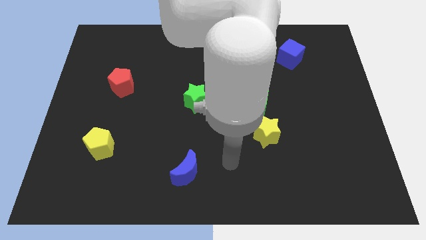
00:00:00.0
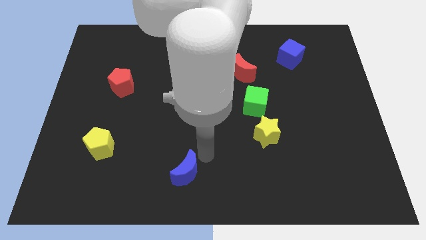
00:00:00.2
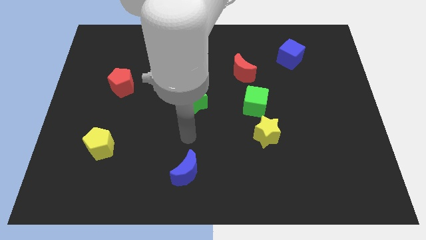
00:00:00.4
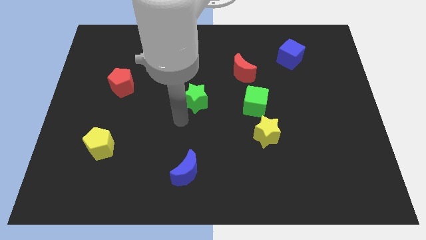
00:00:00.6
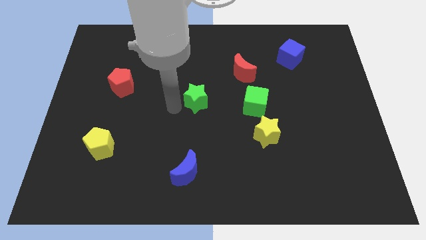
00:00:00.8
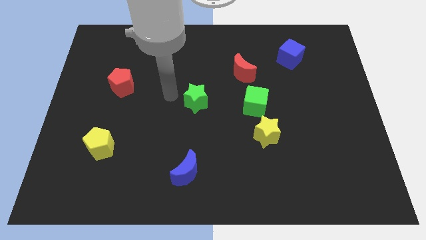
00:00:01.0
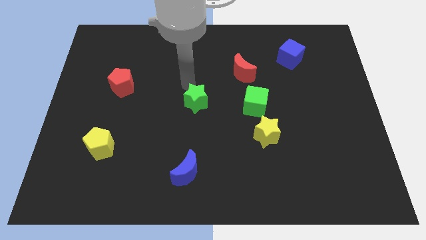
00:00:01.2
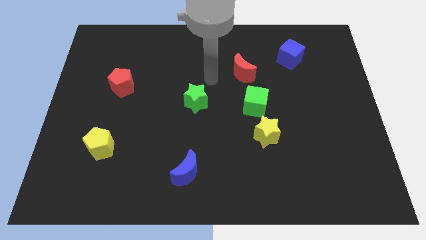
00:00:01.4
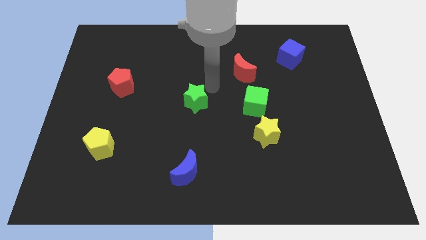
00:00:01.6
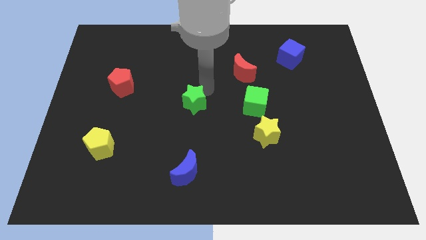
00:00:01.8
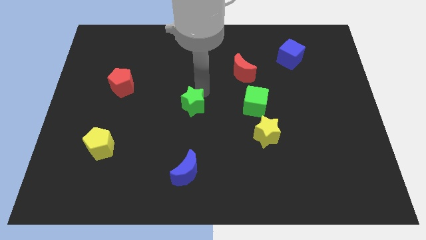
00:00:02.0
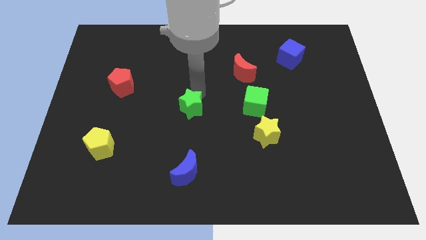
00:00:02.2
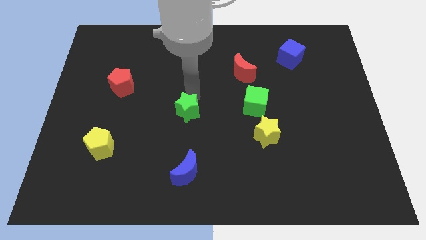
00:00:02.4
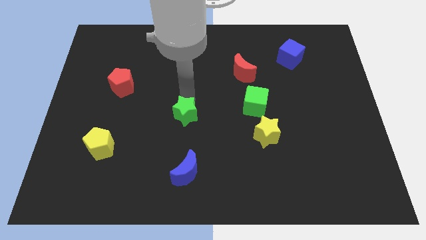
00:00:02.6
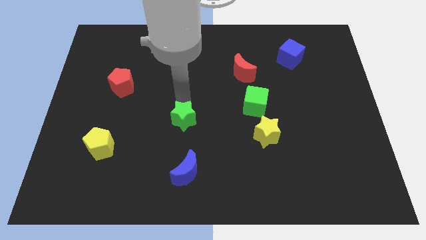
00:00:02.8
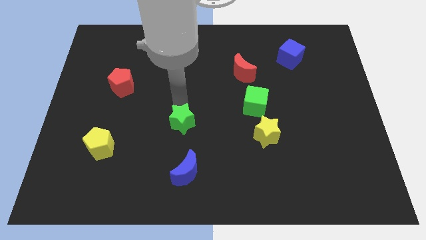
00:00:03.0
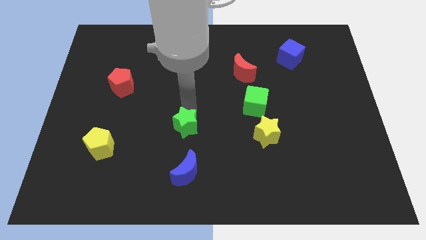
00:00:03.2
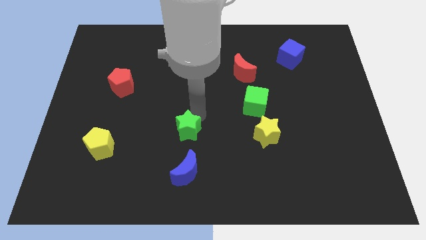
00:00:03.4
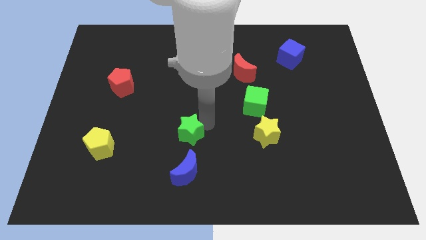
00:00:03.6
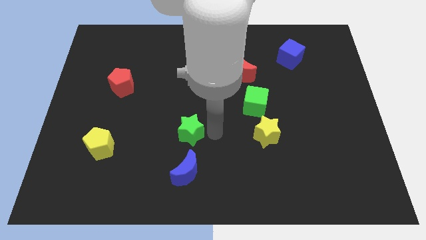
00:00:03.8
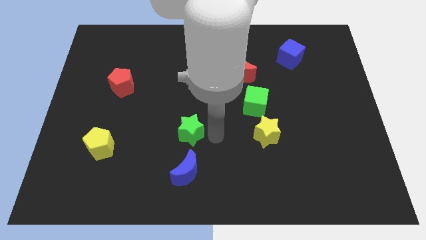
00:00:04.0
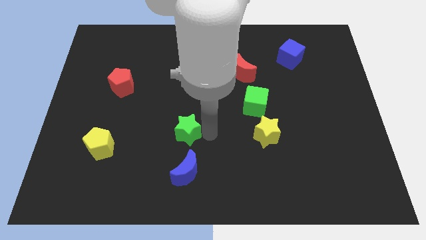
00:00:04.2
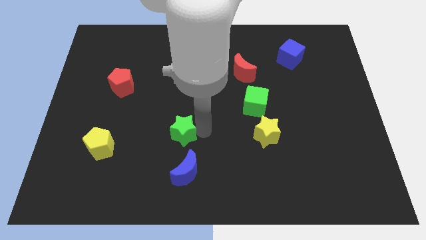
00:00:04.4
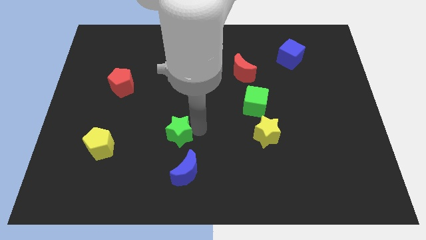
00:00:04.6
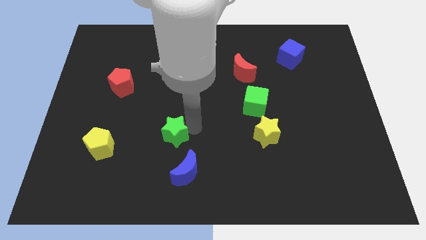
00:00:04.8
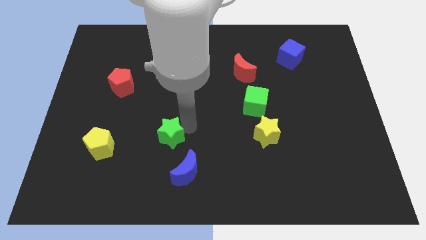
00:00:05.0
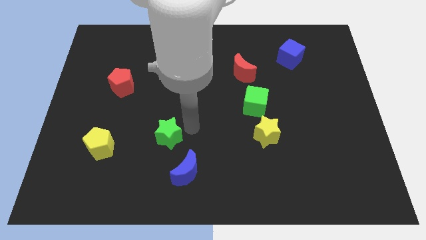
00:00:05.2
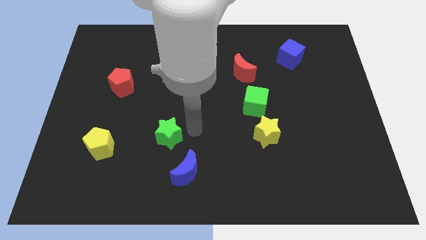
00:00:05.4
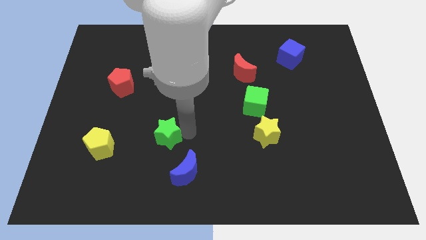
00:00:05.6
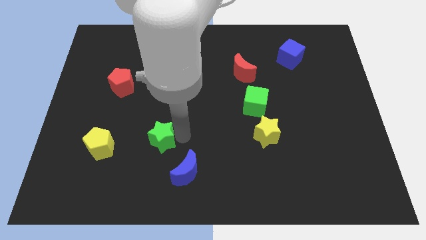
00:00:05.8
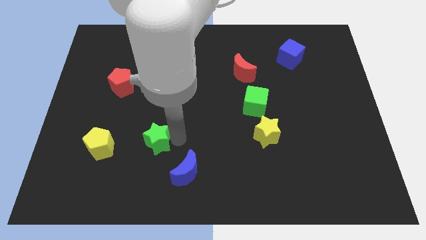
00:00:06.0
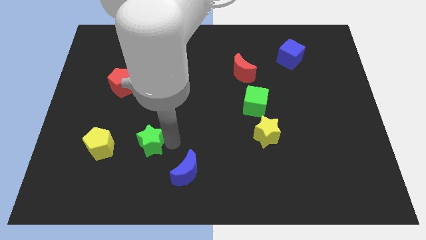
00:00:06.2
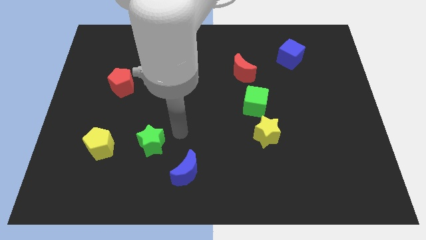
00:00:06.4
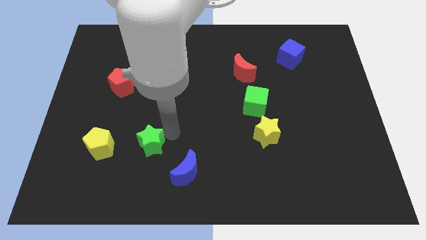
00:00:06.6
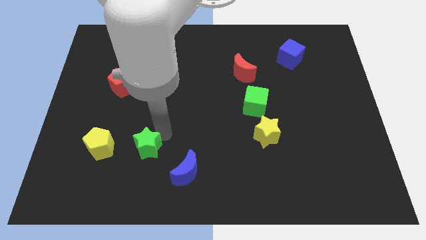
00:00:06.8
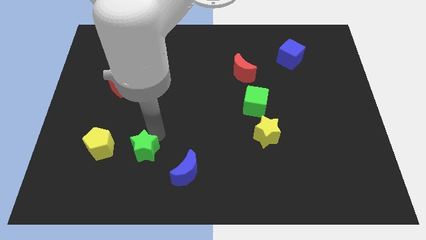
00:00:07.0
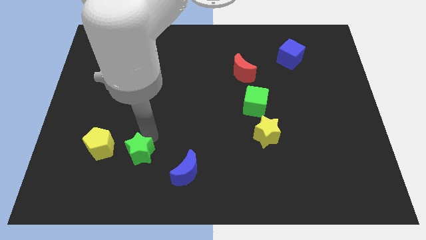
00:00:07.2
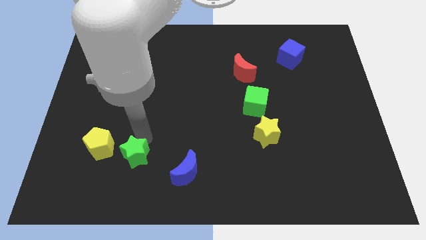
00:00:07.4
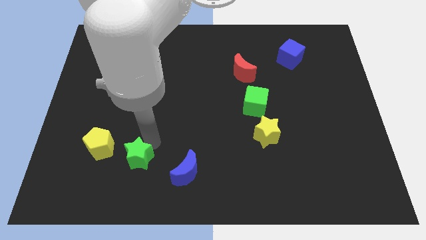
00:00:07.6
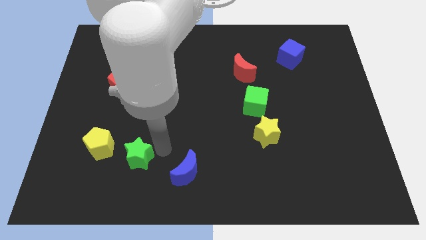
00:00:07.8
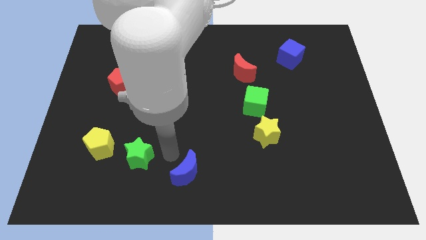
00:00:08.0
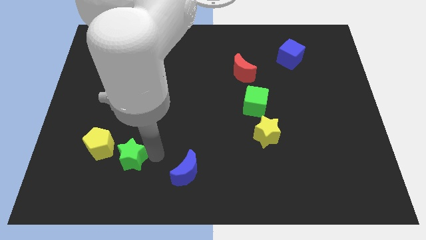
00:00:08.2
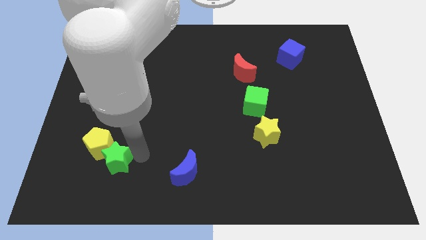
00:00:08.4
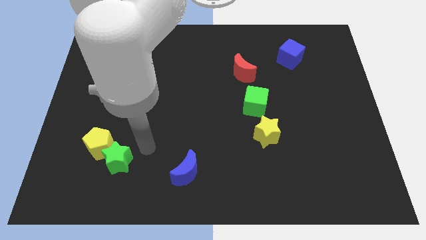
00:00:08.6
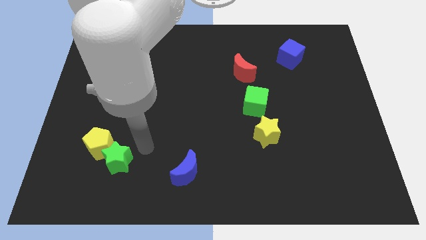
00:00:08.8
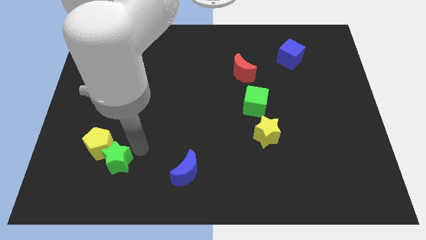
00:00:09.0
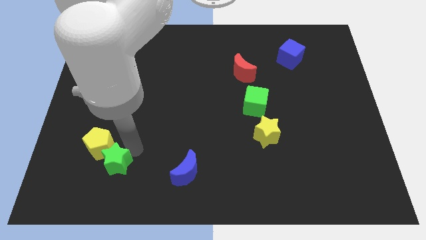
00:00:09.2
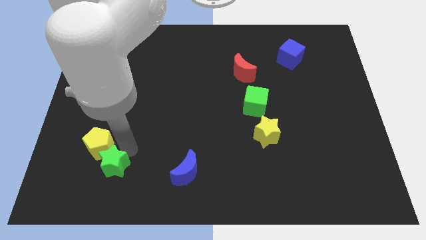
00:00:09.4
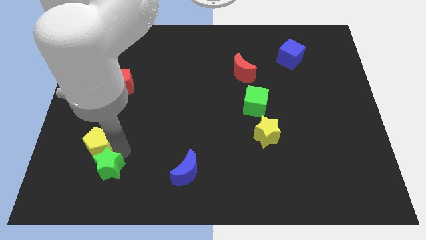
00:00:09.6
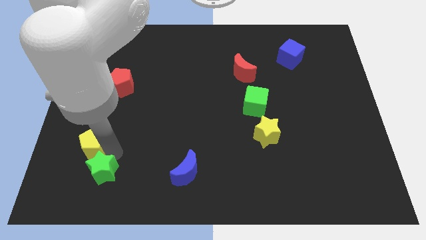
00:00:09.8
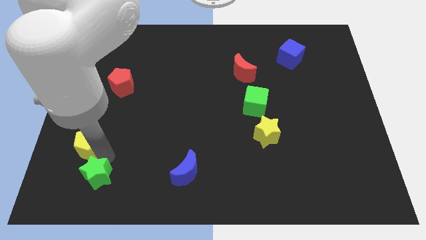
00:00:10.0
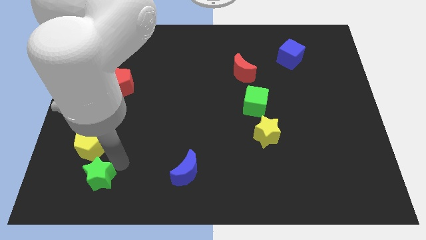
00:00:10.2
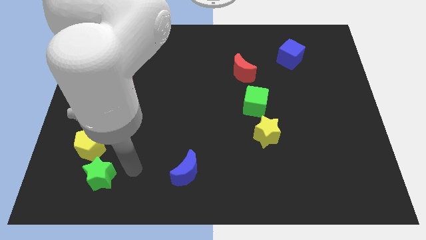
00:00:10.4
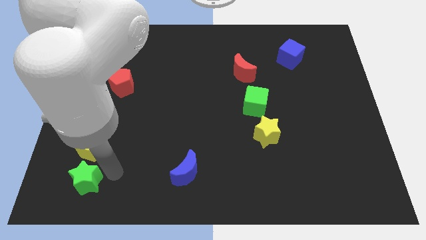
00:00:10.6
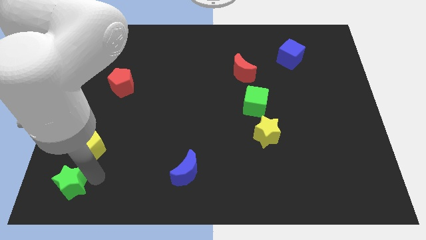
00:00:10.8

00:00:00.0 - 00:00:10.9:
put the green star to the lower left corner

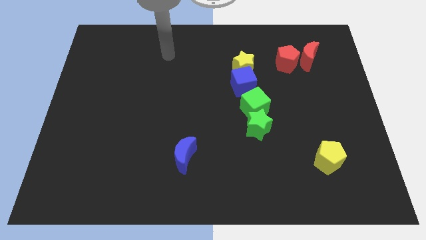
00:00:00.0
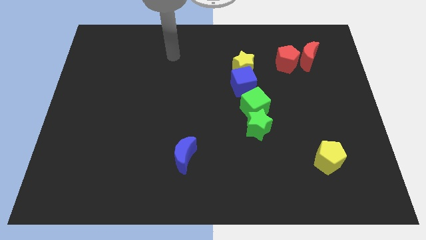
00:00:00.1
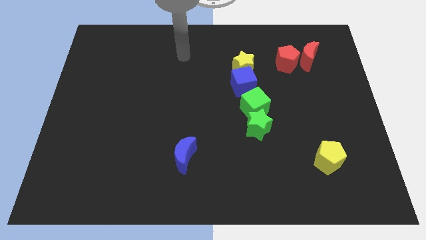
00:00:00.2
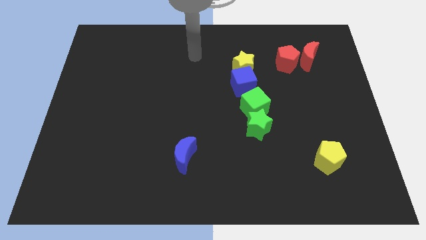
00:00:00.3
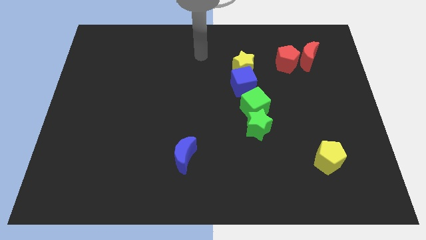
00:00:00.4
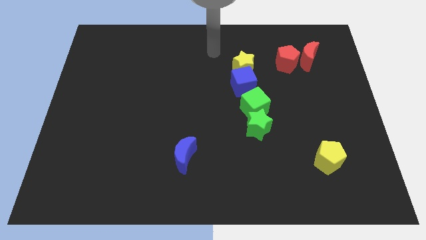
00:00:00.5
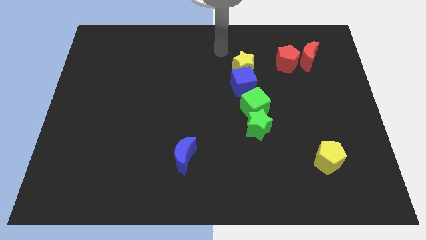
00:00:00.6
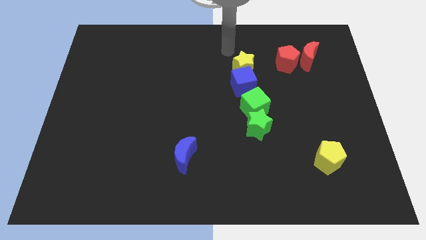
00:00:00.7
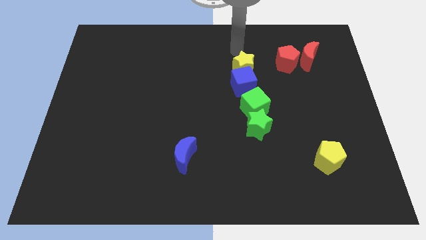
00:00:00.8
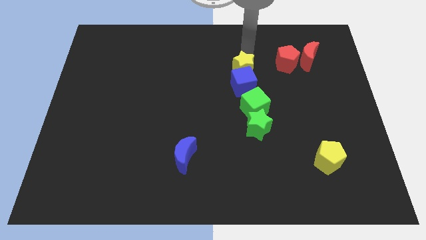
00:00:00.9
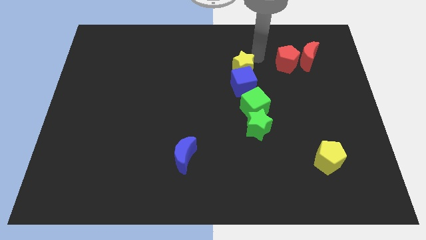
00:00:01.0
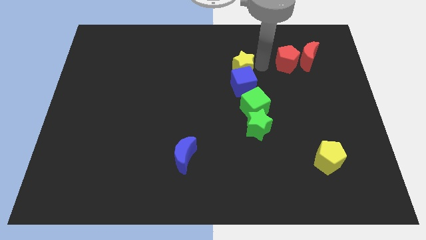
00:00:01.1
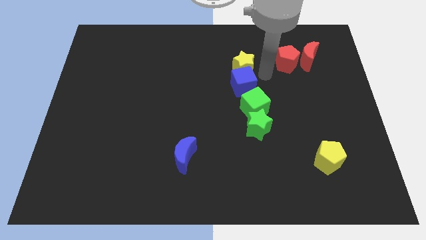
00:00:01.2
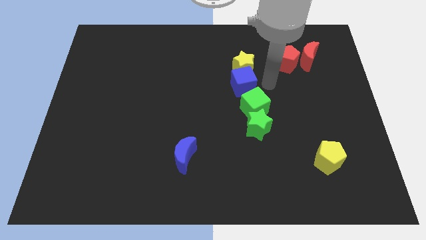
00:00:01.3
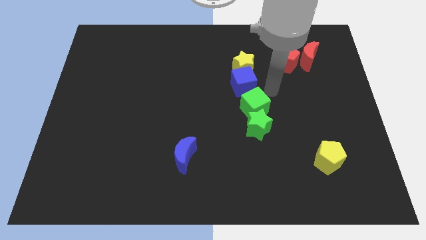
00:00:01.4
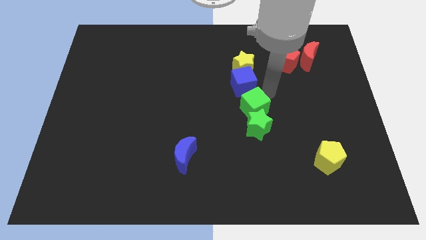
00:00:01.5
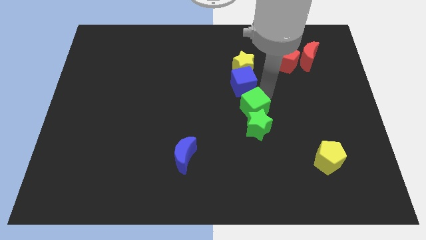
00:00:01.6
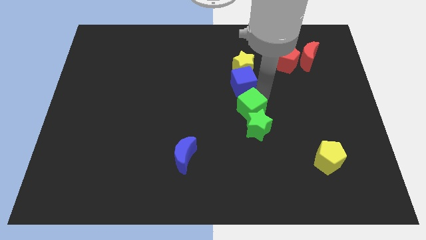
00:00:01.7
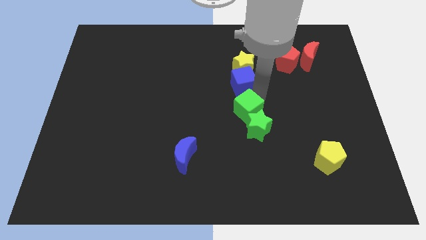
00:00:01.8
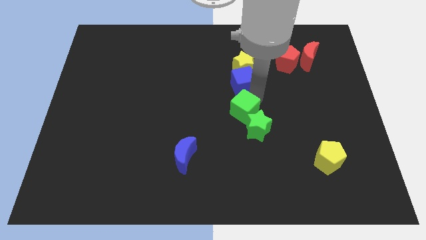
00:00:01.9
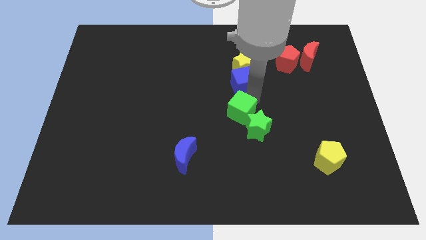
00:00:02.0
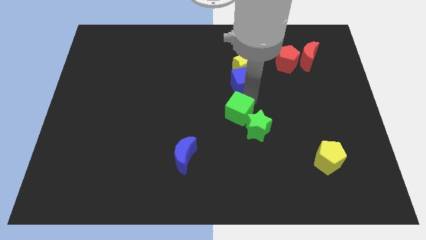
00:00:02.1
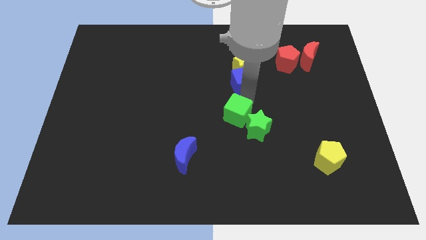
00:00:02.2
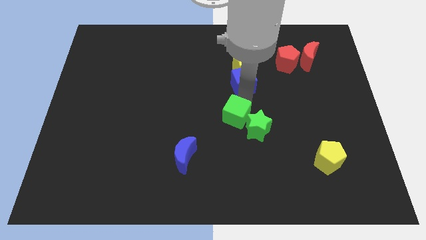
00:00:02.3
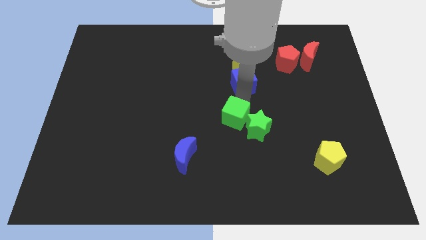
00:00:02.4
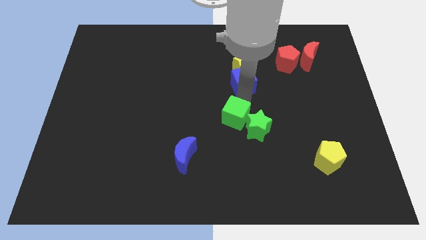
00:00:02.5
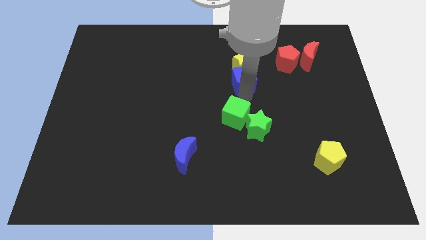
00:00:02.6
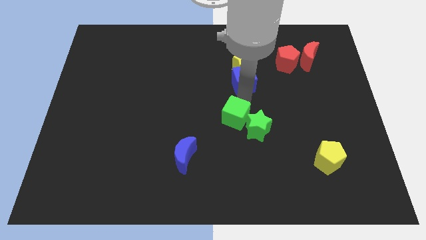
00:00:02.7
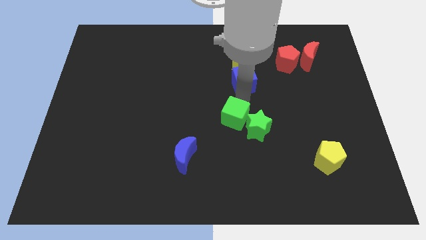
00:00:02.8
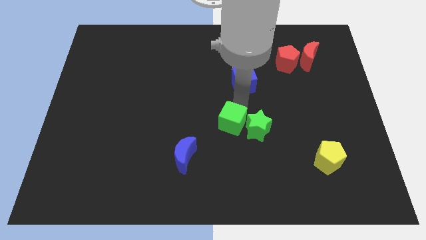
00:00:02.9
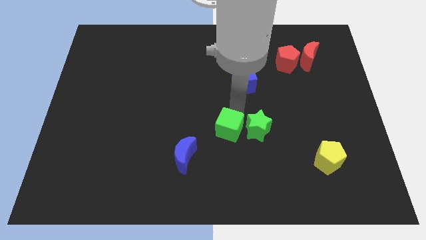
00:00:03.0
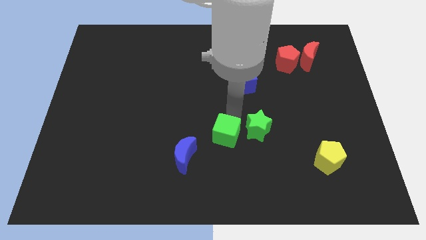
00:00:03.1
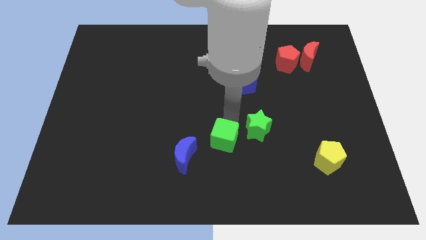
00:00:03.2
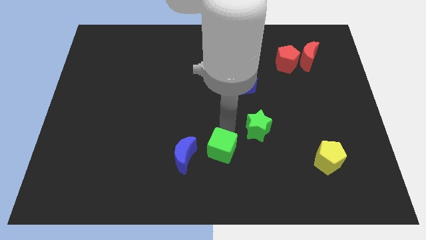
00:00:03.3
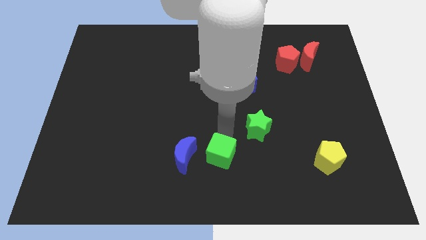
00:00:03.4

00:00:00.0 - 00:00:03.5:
put the green cube to the bottom
